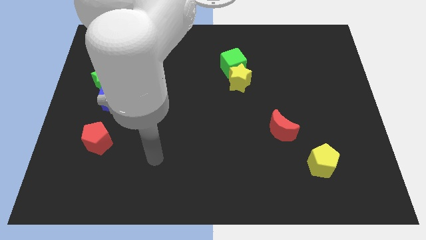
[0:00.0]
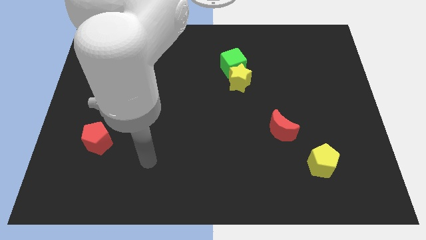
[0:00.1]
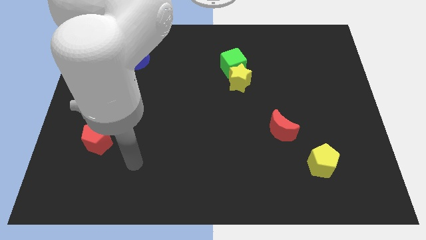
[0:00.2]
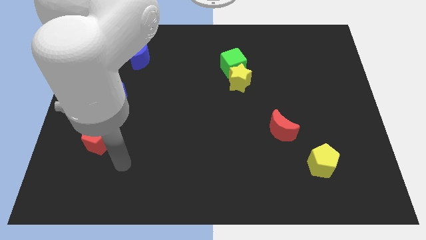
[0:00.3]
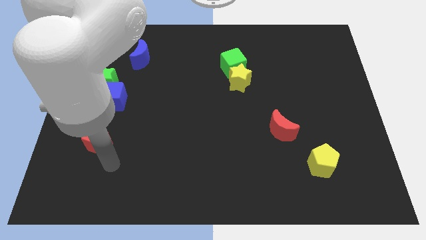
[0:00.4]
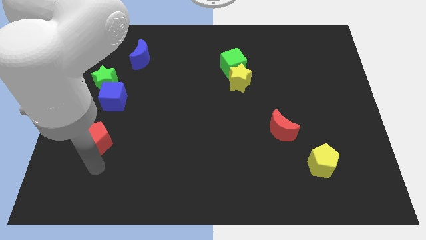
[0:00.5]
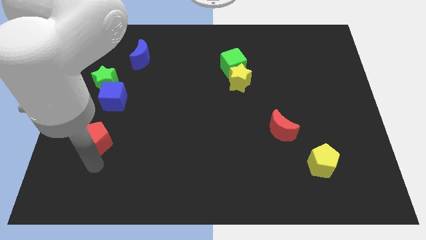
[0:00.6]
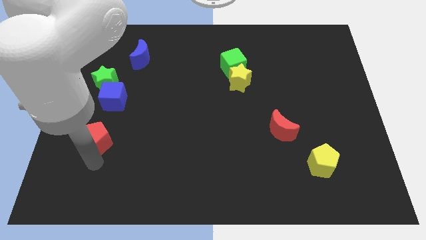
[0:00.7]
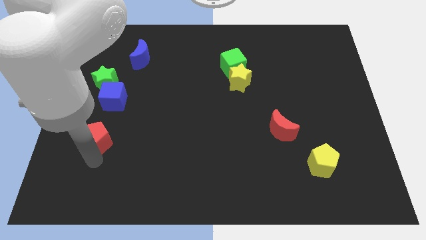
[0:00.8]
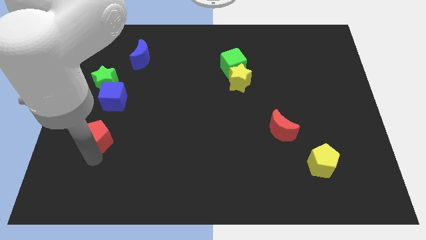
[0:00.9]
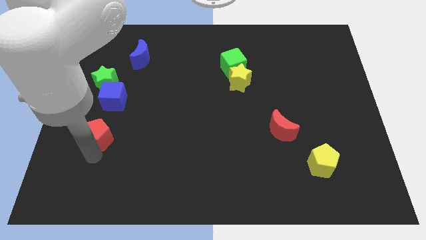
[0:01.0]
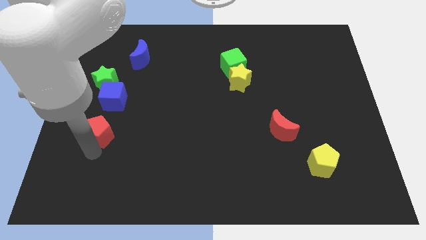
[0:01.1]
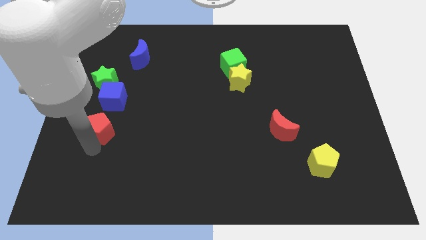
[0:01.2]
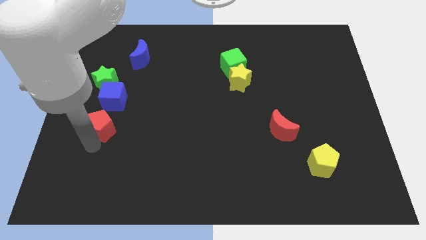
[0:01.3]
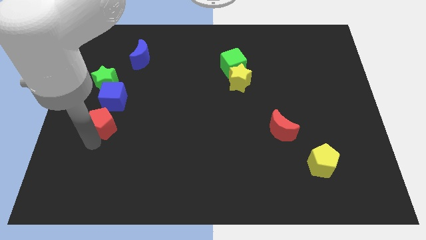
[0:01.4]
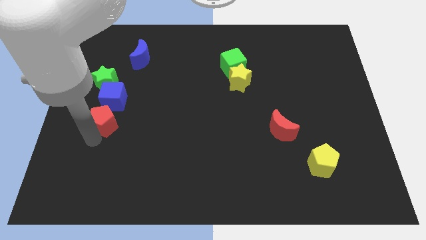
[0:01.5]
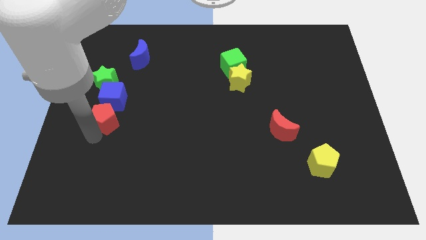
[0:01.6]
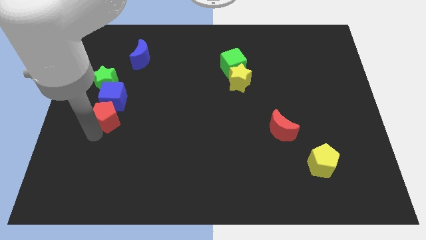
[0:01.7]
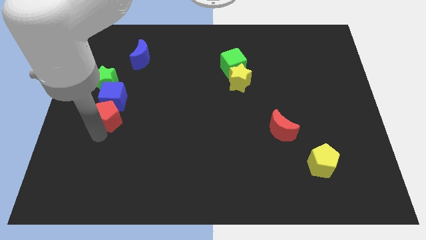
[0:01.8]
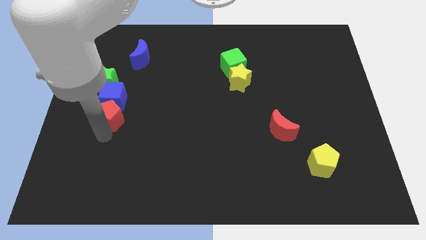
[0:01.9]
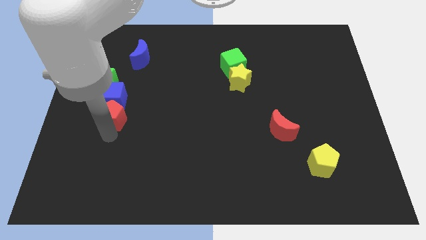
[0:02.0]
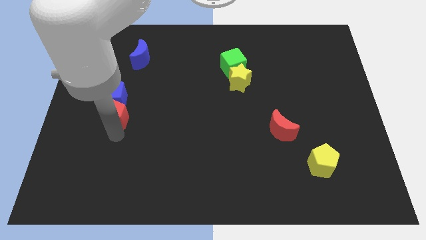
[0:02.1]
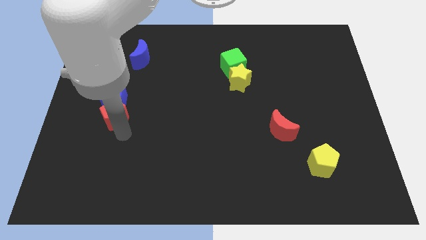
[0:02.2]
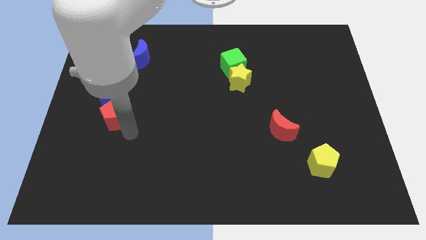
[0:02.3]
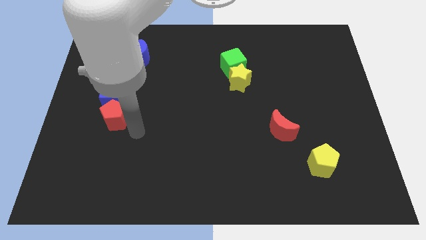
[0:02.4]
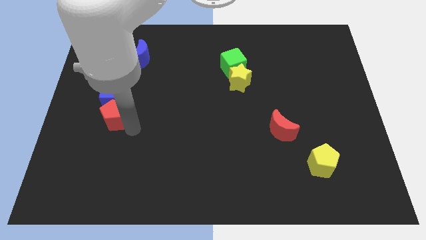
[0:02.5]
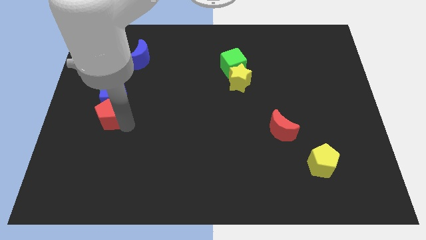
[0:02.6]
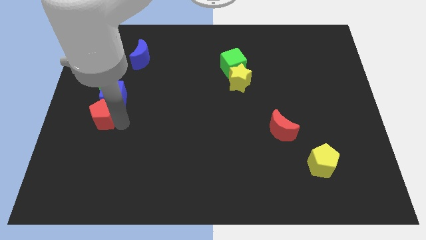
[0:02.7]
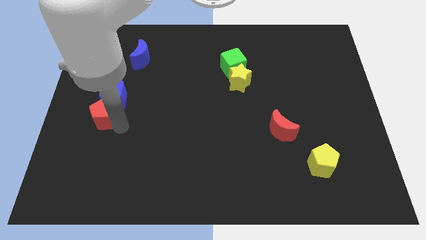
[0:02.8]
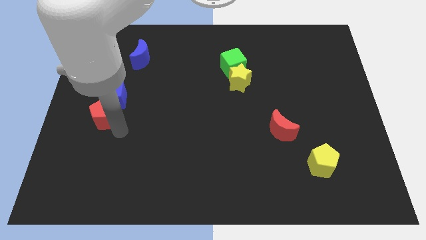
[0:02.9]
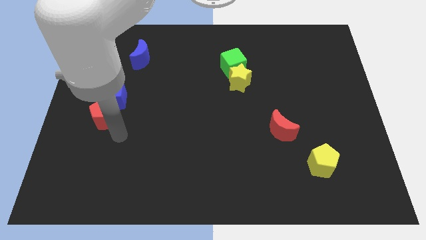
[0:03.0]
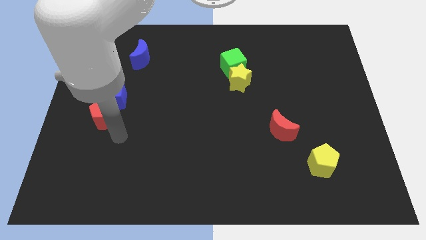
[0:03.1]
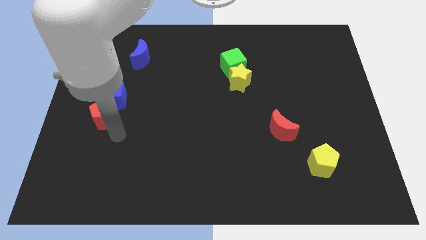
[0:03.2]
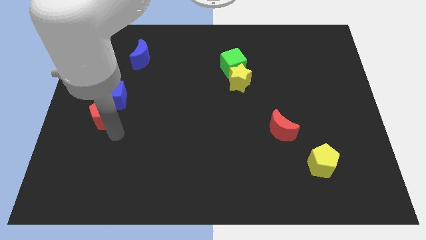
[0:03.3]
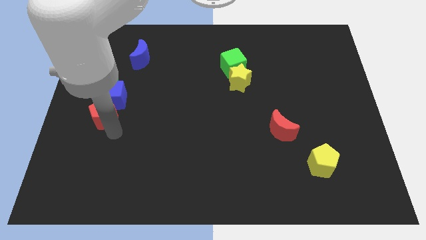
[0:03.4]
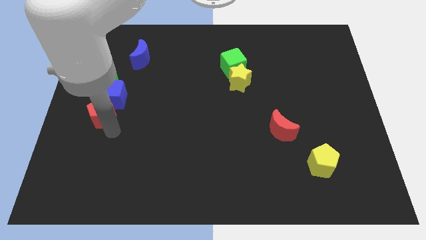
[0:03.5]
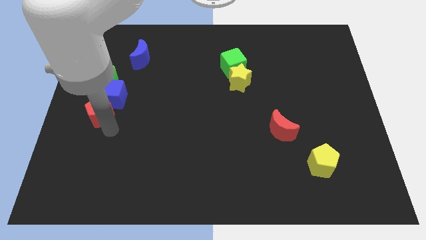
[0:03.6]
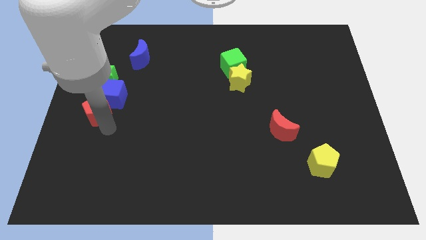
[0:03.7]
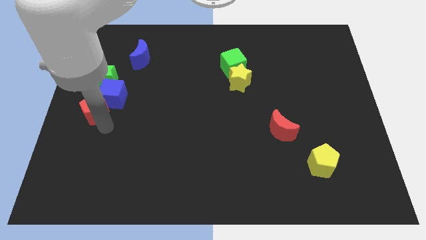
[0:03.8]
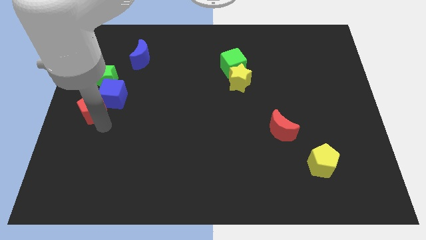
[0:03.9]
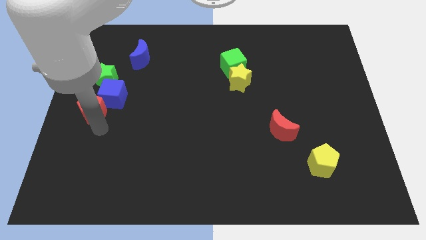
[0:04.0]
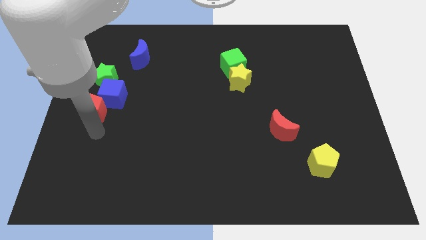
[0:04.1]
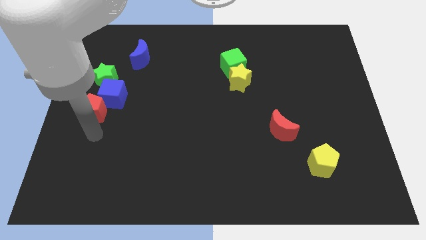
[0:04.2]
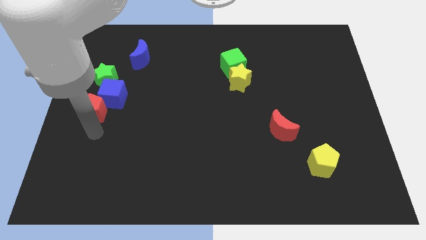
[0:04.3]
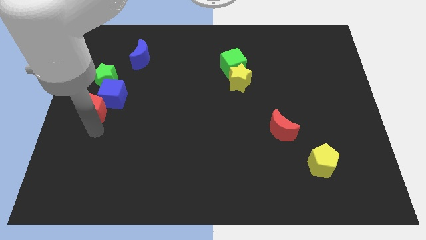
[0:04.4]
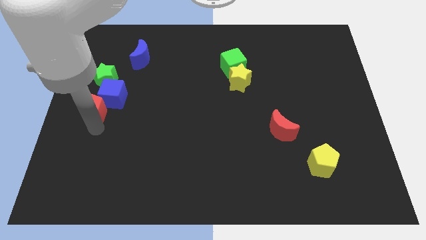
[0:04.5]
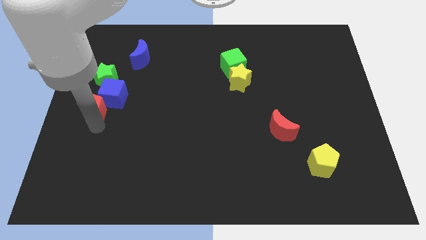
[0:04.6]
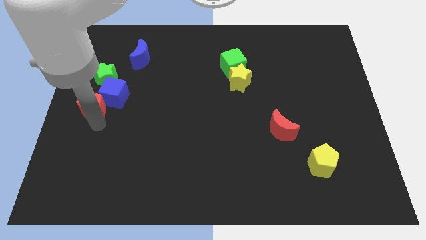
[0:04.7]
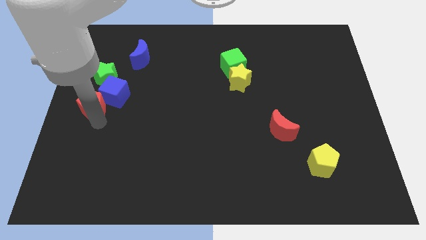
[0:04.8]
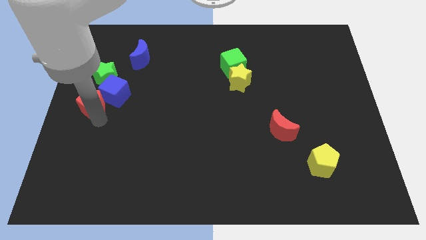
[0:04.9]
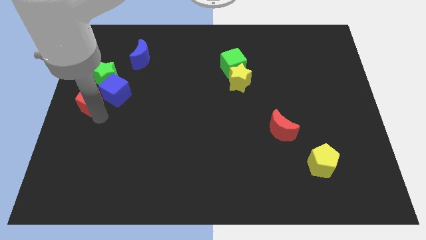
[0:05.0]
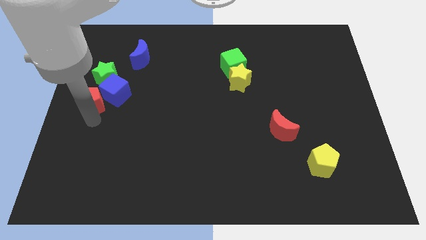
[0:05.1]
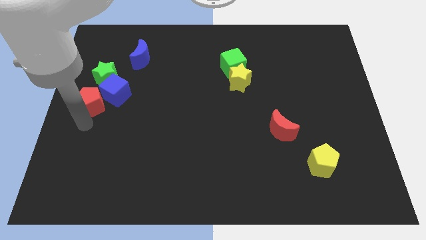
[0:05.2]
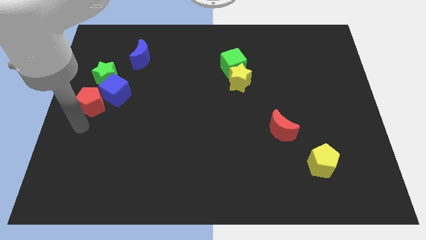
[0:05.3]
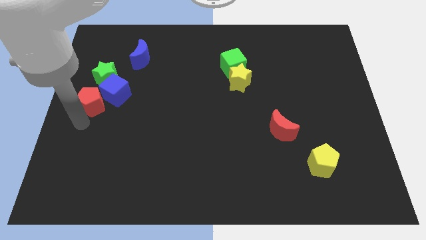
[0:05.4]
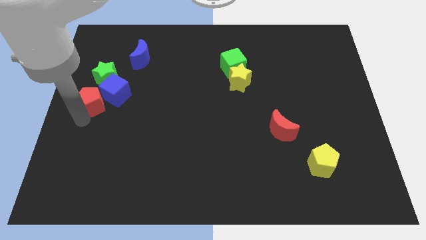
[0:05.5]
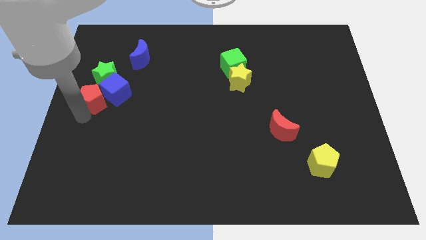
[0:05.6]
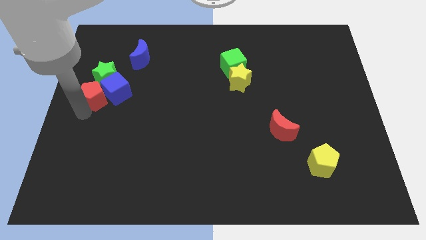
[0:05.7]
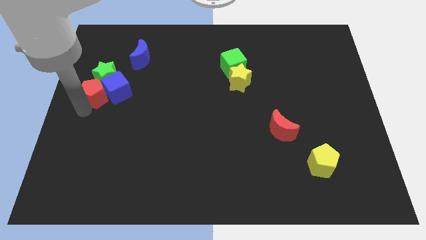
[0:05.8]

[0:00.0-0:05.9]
push the red pentagon to the green star

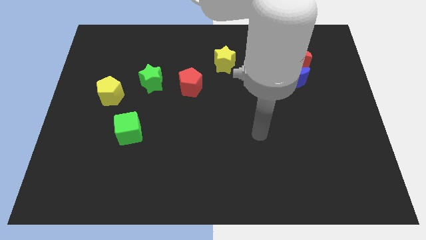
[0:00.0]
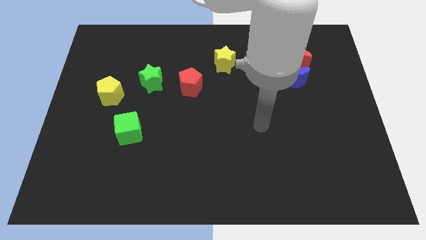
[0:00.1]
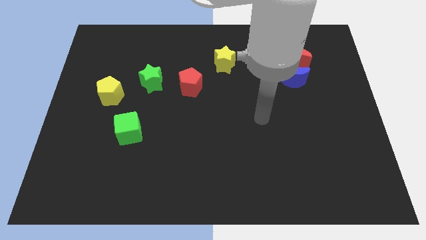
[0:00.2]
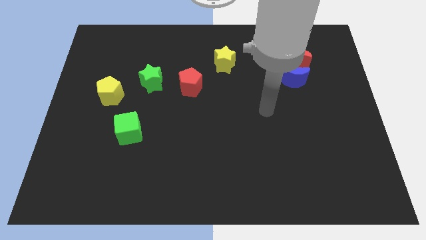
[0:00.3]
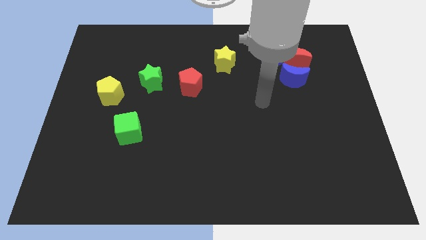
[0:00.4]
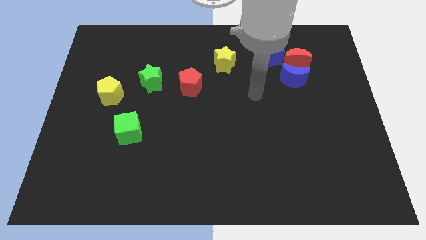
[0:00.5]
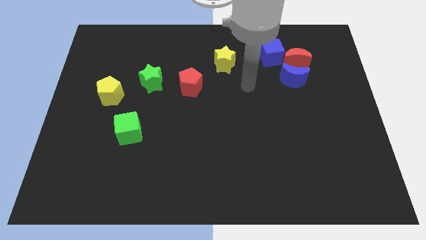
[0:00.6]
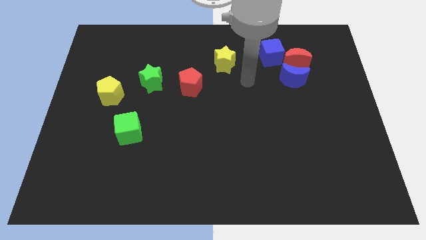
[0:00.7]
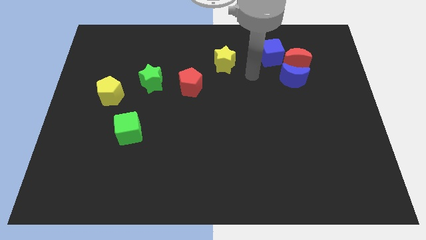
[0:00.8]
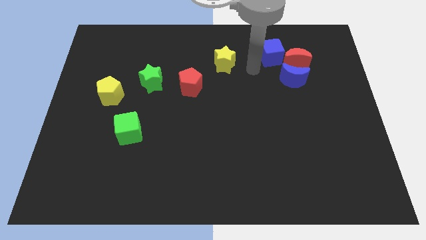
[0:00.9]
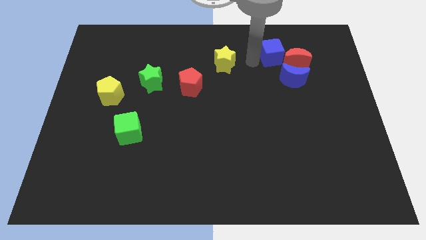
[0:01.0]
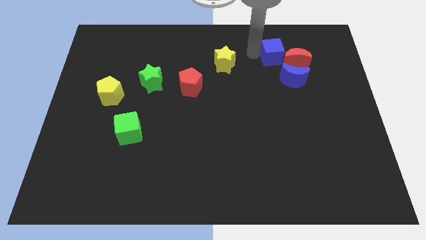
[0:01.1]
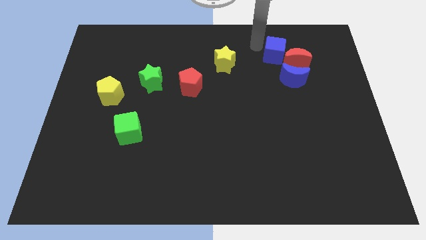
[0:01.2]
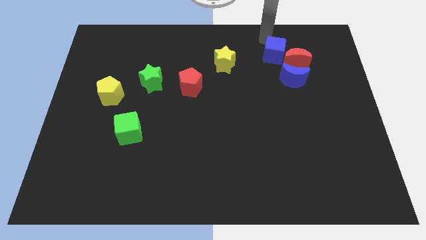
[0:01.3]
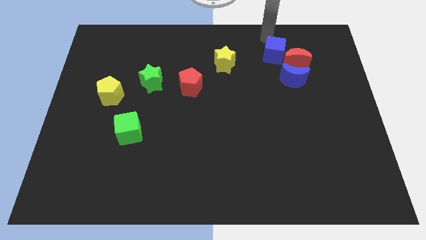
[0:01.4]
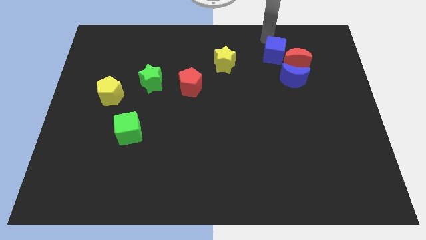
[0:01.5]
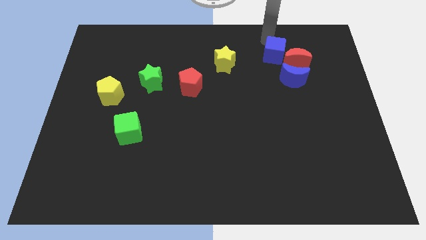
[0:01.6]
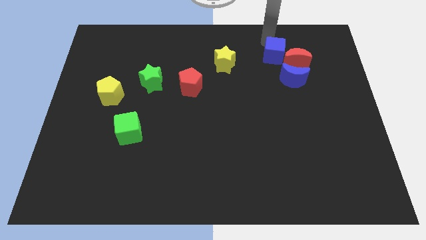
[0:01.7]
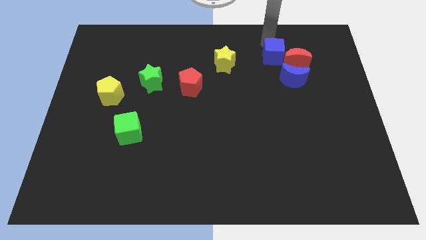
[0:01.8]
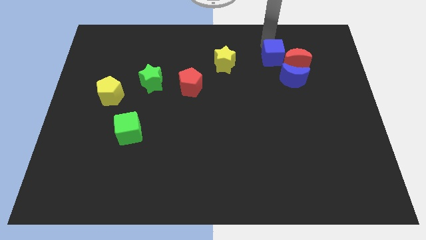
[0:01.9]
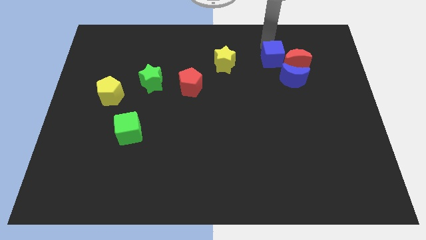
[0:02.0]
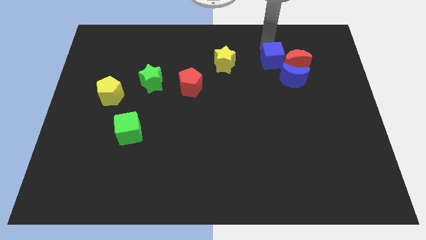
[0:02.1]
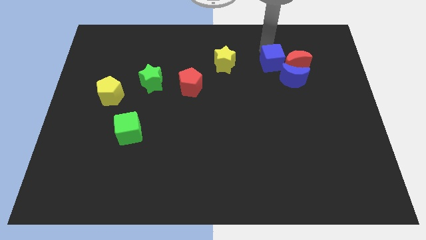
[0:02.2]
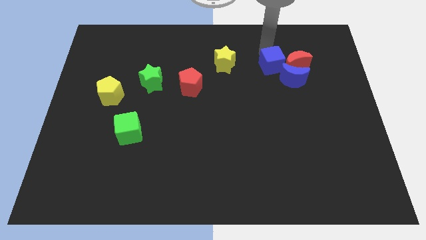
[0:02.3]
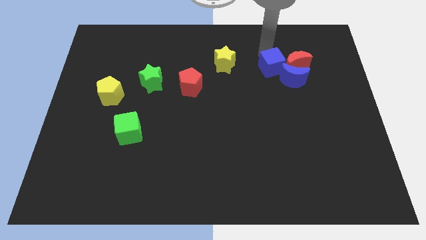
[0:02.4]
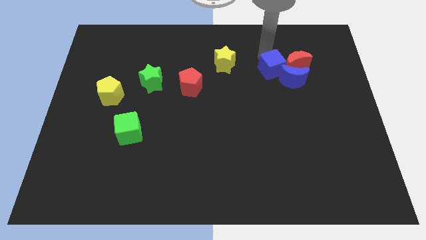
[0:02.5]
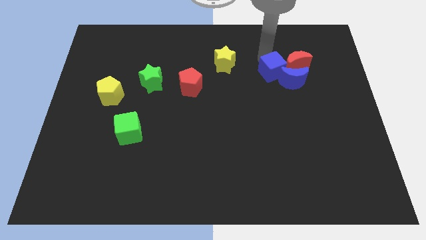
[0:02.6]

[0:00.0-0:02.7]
put the blue cube next to the blue moon
